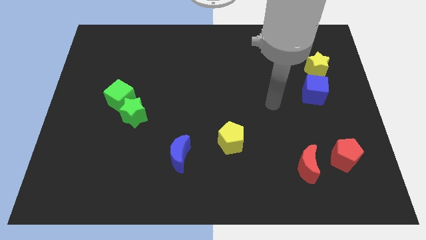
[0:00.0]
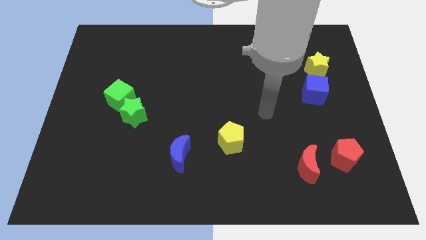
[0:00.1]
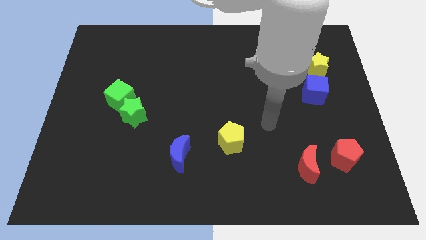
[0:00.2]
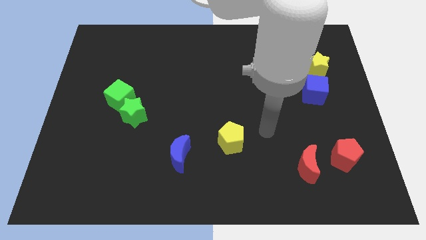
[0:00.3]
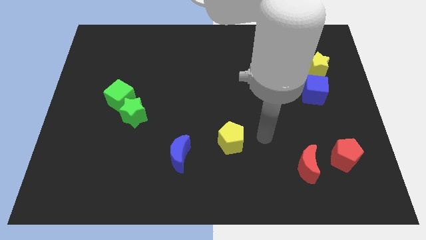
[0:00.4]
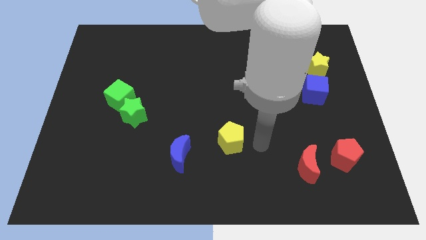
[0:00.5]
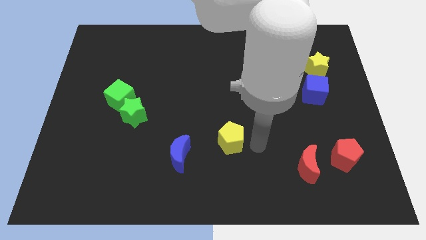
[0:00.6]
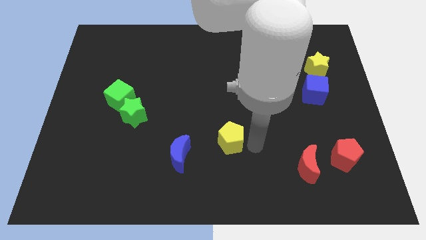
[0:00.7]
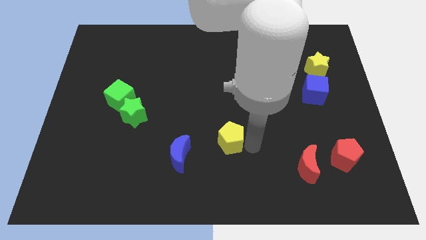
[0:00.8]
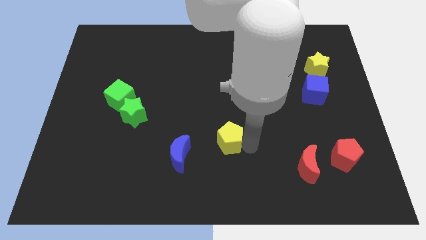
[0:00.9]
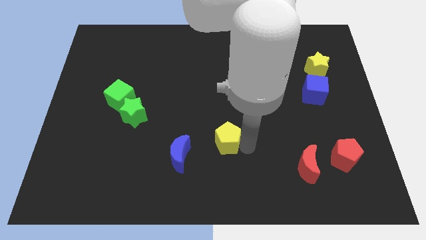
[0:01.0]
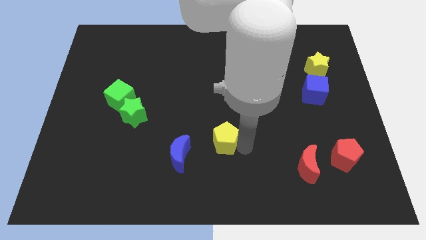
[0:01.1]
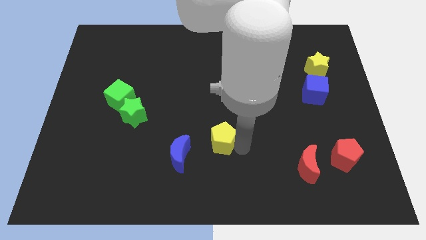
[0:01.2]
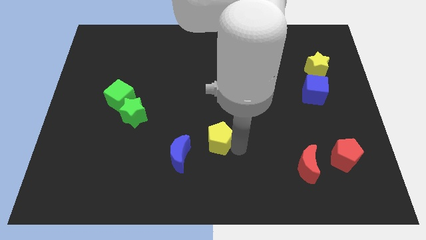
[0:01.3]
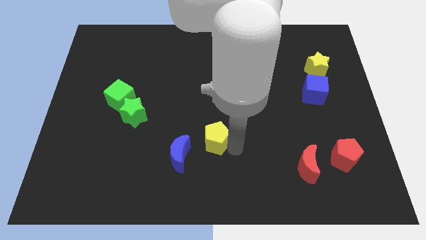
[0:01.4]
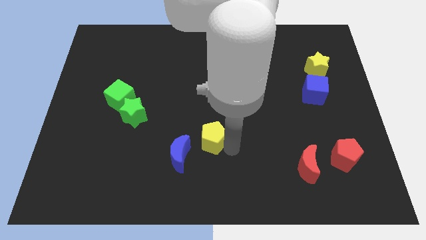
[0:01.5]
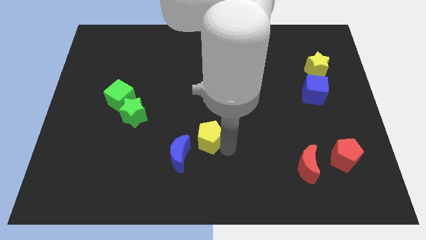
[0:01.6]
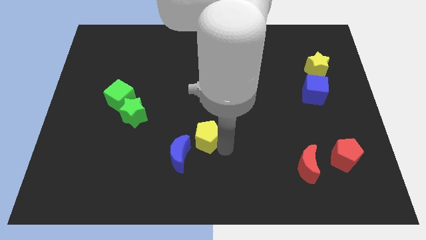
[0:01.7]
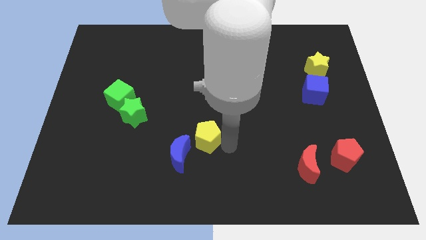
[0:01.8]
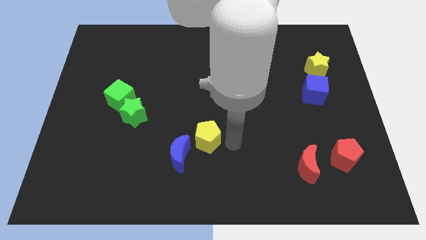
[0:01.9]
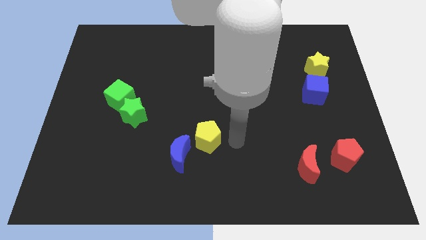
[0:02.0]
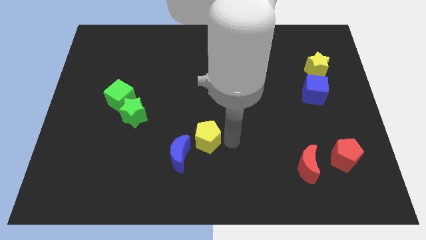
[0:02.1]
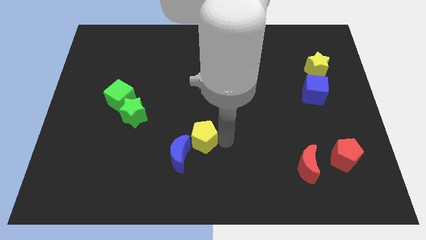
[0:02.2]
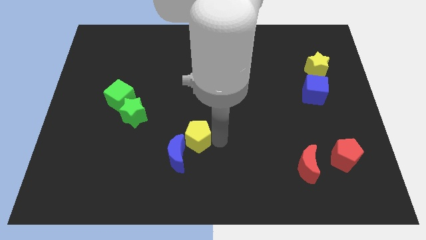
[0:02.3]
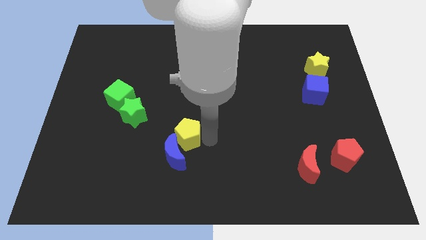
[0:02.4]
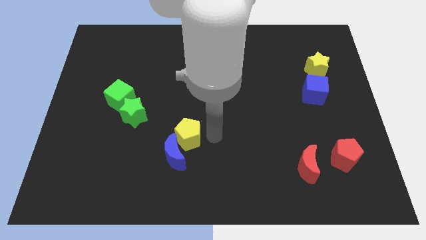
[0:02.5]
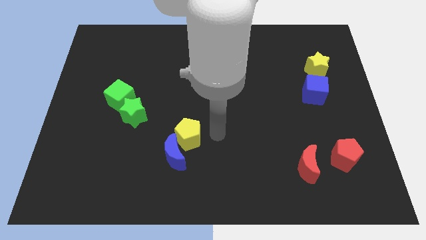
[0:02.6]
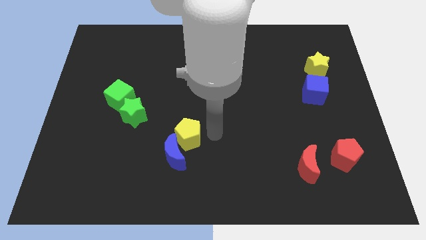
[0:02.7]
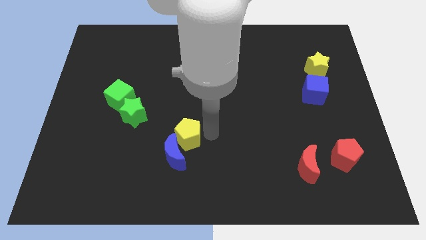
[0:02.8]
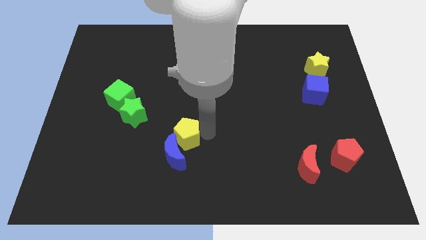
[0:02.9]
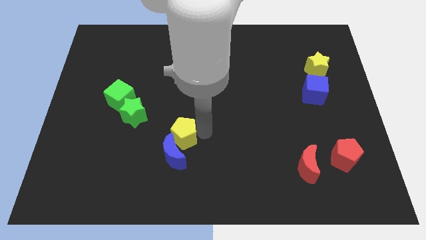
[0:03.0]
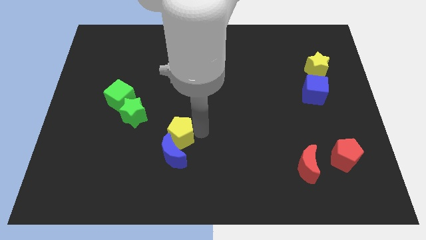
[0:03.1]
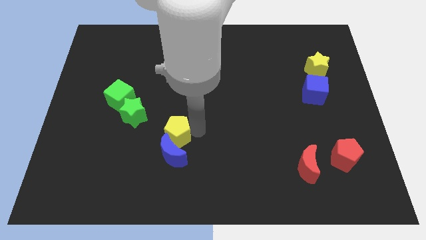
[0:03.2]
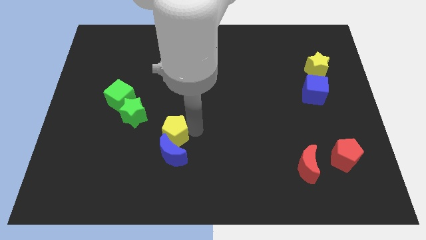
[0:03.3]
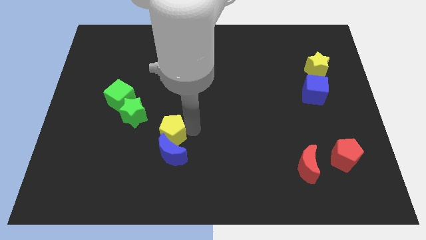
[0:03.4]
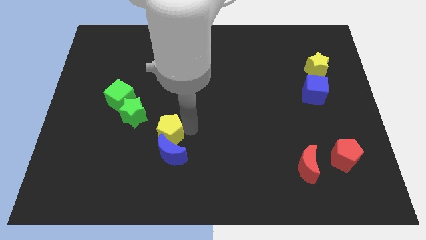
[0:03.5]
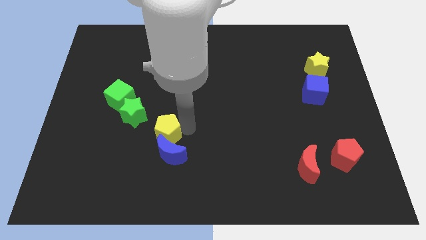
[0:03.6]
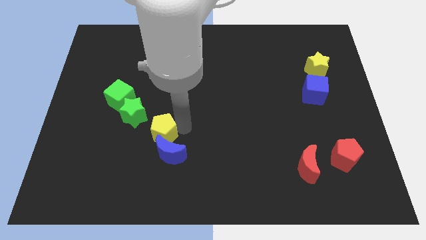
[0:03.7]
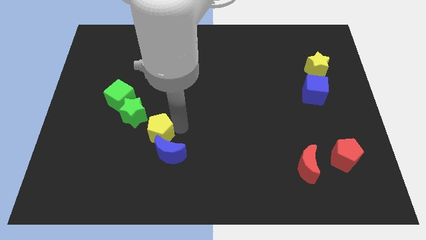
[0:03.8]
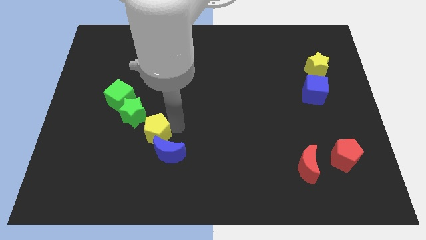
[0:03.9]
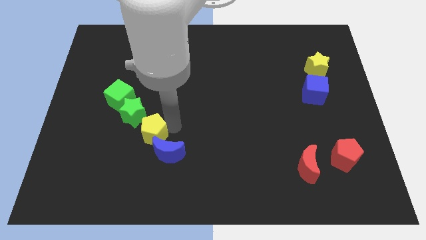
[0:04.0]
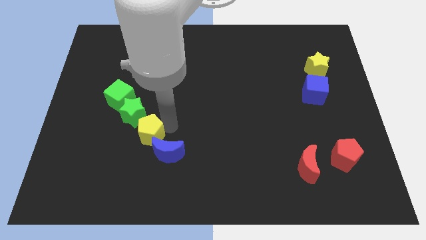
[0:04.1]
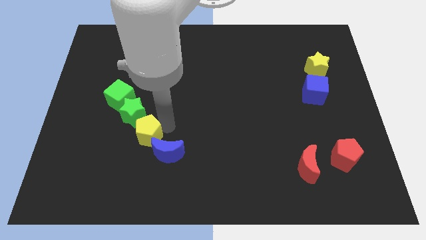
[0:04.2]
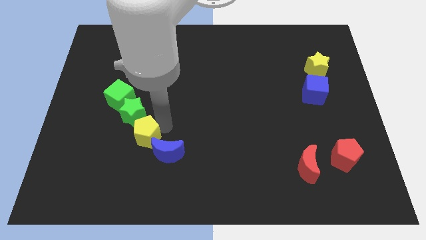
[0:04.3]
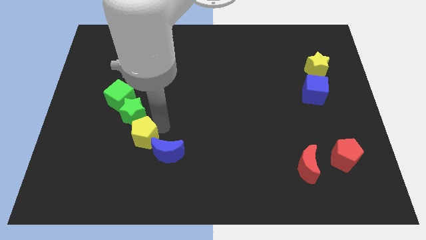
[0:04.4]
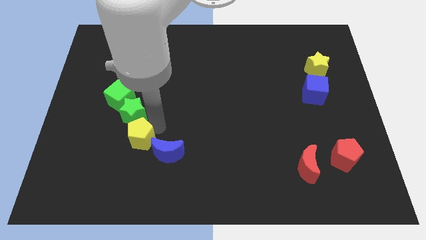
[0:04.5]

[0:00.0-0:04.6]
slide the yellow pentagon to the left

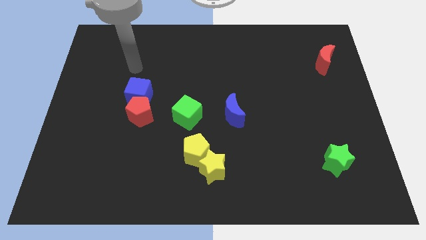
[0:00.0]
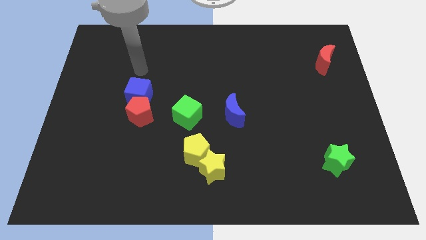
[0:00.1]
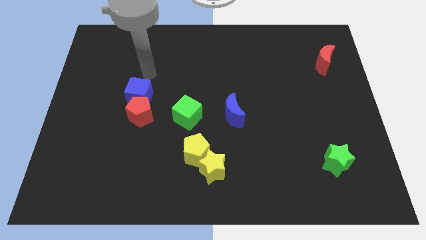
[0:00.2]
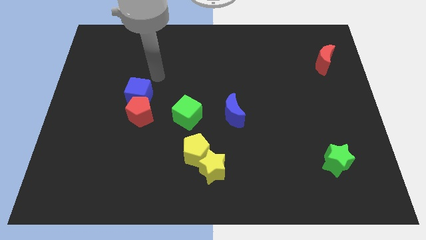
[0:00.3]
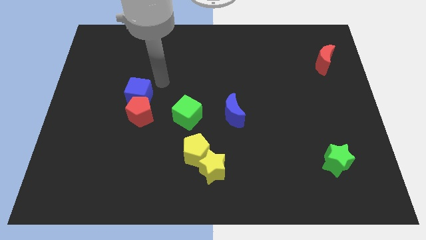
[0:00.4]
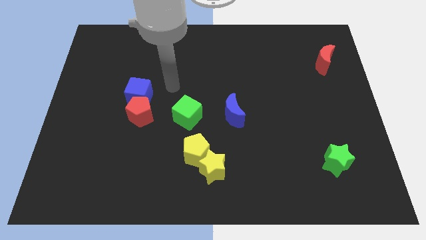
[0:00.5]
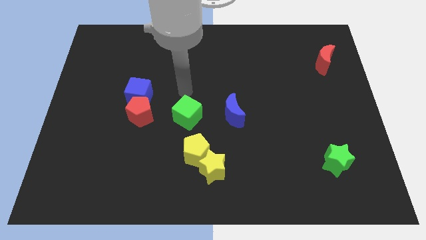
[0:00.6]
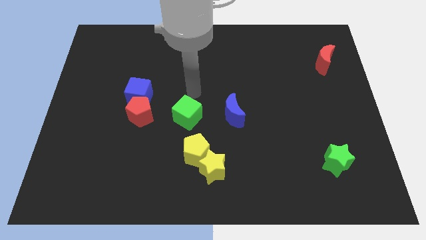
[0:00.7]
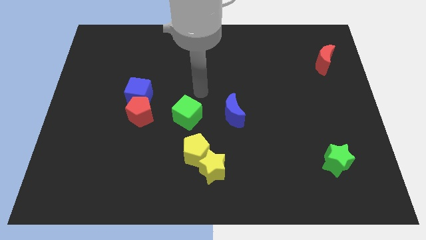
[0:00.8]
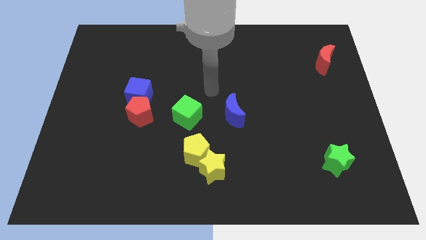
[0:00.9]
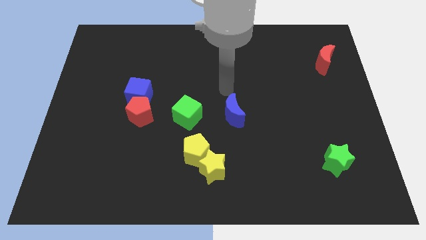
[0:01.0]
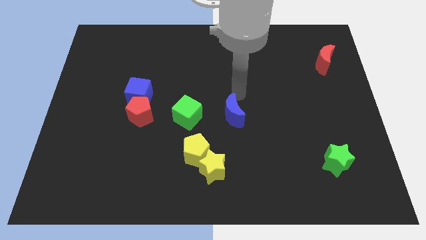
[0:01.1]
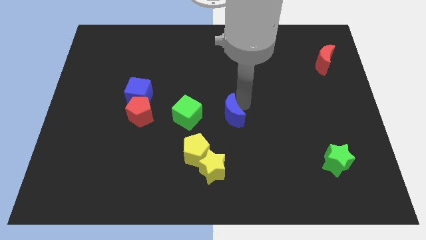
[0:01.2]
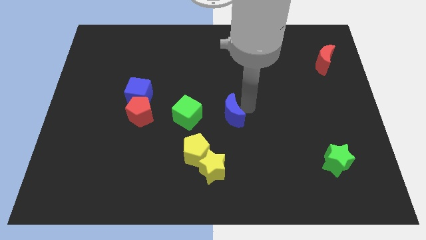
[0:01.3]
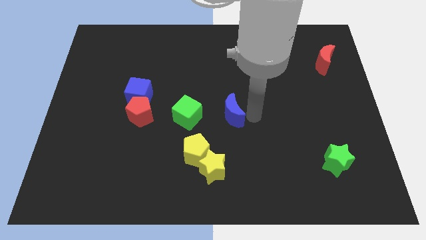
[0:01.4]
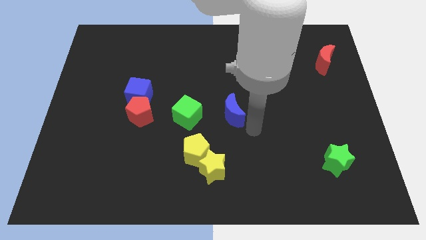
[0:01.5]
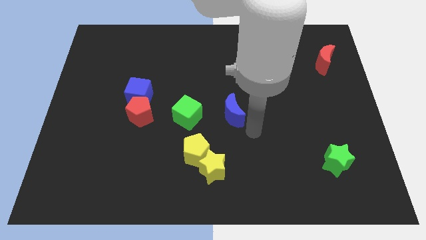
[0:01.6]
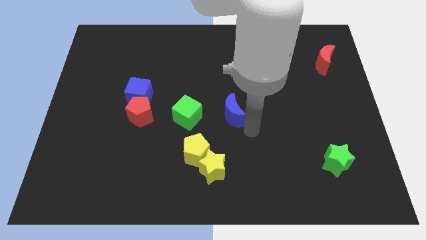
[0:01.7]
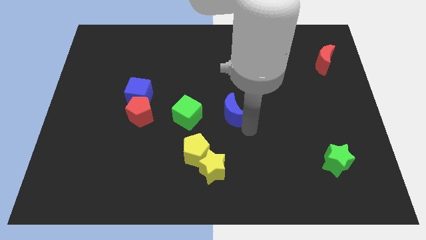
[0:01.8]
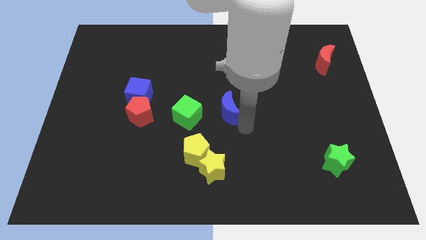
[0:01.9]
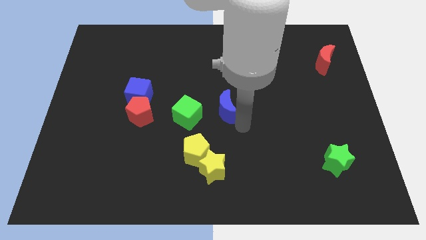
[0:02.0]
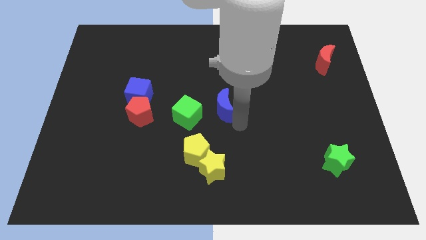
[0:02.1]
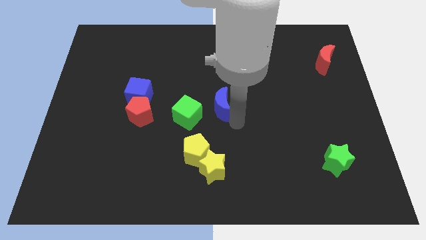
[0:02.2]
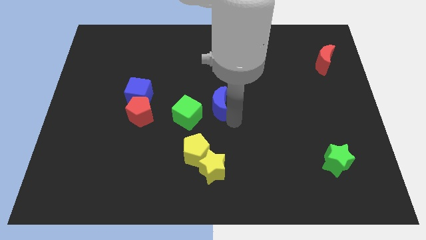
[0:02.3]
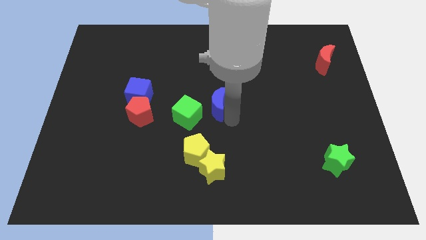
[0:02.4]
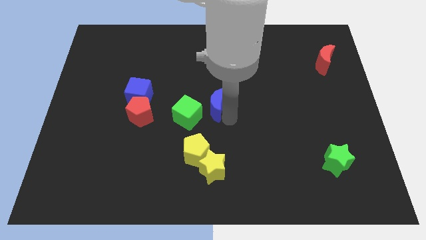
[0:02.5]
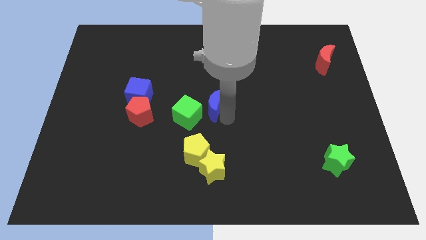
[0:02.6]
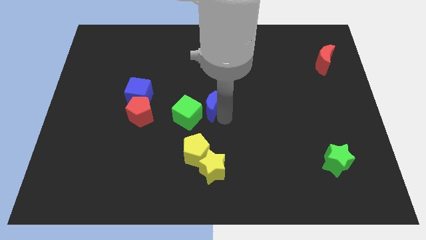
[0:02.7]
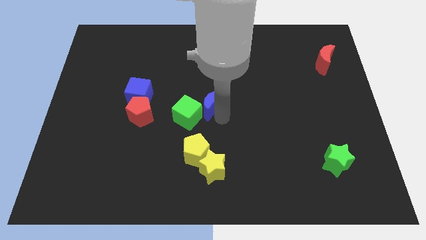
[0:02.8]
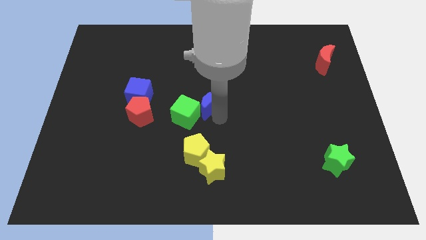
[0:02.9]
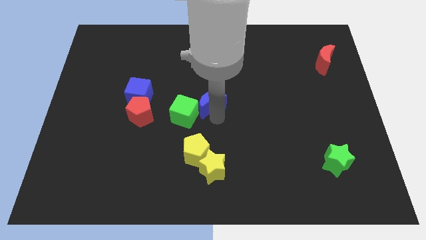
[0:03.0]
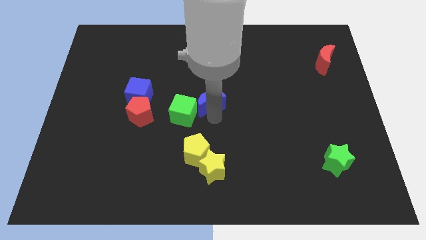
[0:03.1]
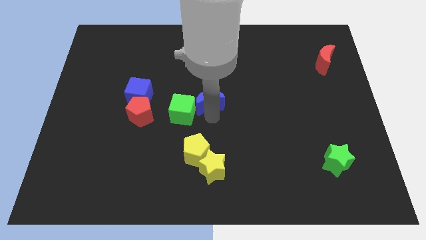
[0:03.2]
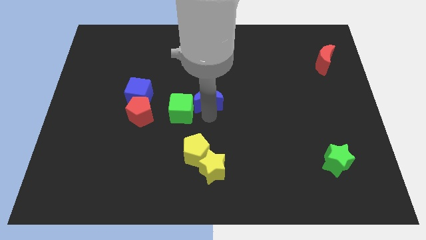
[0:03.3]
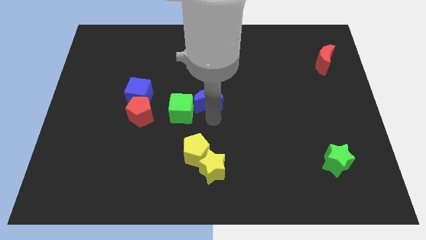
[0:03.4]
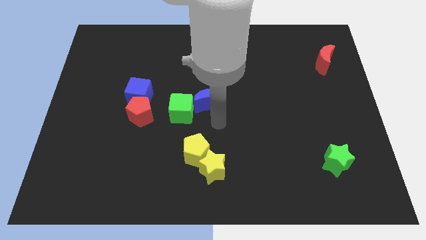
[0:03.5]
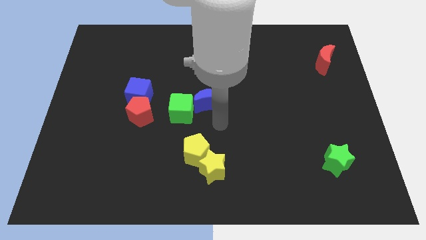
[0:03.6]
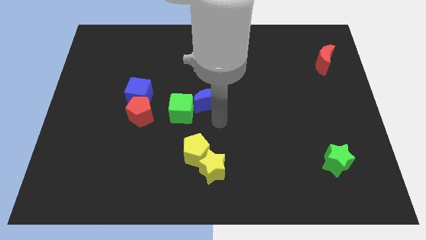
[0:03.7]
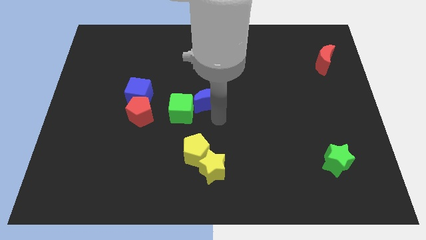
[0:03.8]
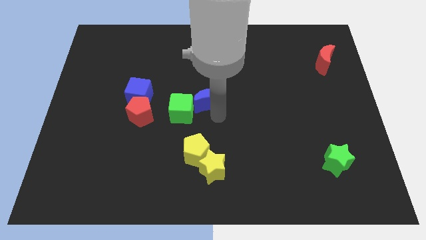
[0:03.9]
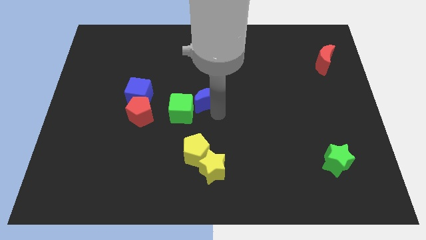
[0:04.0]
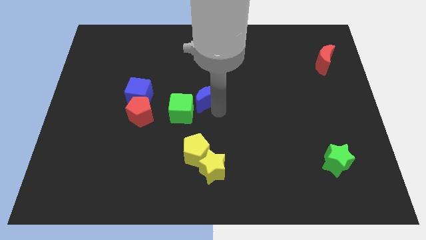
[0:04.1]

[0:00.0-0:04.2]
move the blue moon upwards and to the left a little
